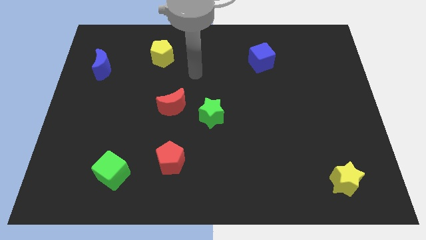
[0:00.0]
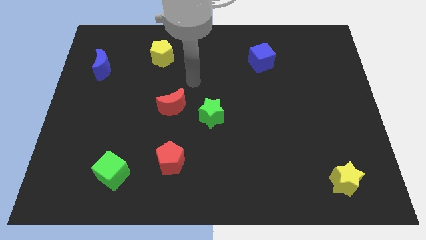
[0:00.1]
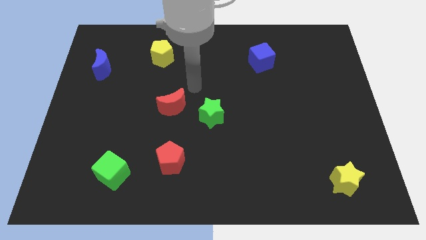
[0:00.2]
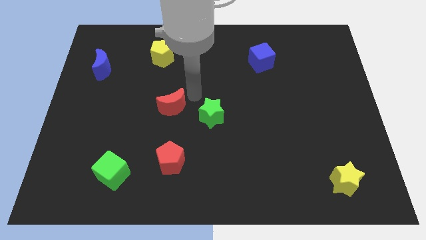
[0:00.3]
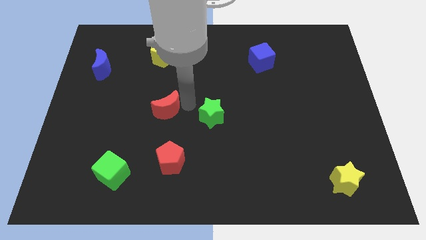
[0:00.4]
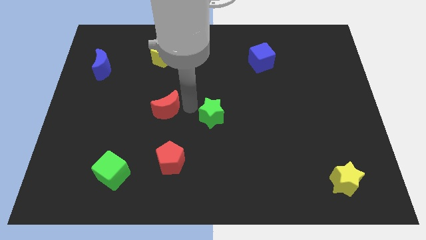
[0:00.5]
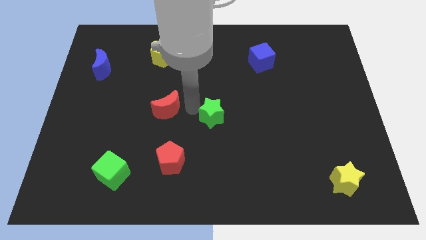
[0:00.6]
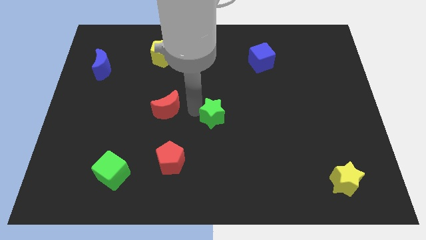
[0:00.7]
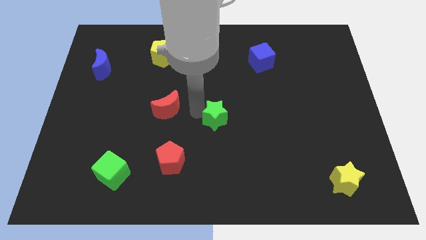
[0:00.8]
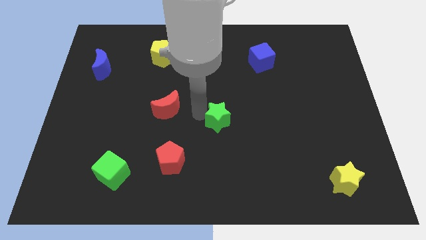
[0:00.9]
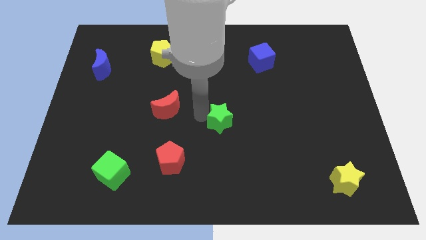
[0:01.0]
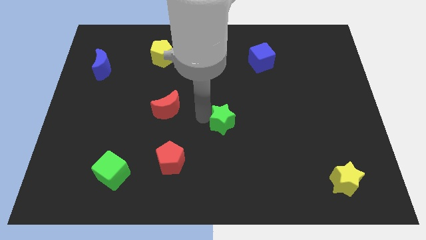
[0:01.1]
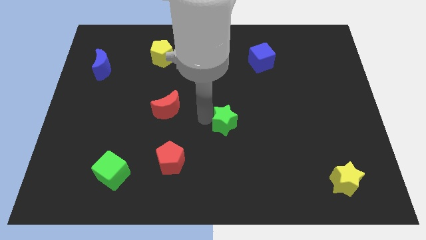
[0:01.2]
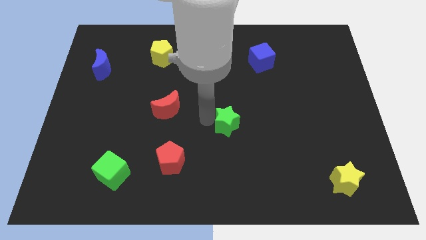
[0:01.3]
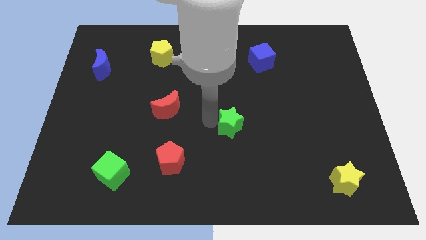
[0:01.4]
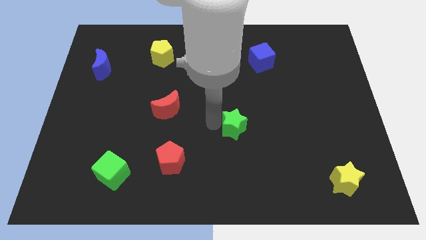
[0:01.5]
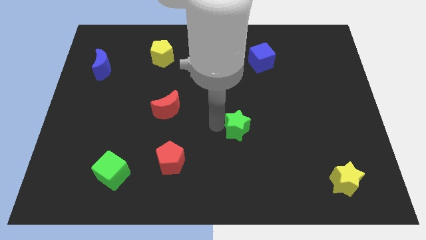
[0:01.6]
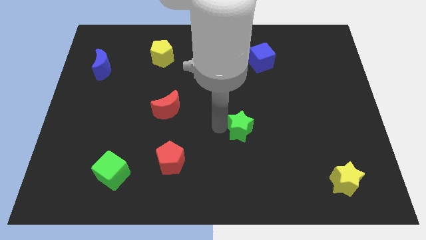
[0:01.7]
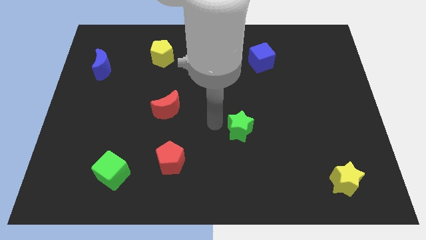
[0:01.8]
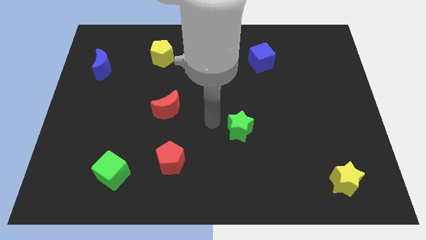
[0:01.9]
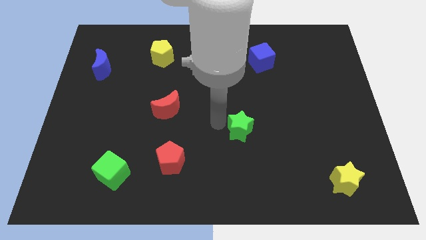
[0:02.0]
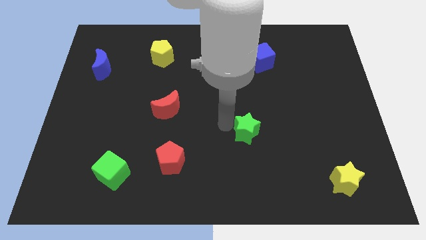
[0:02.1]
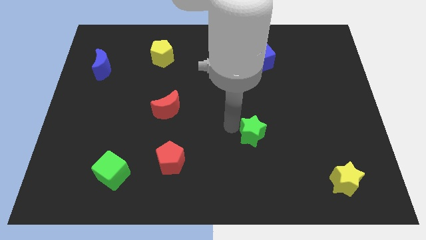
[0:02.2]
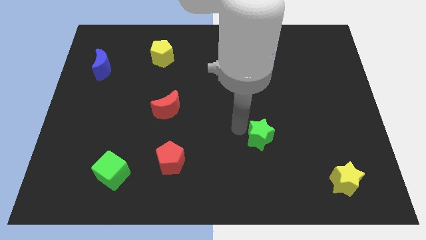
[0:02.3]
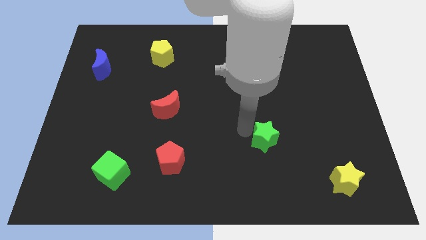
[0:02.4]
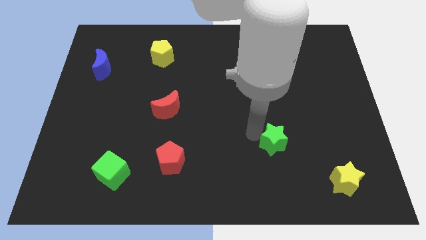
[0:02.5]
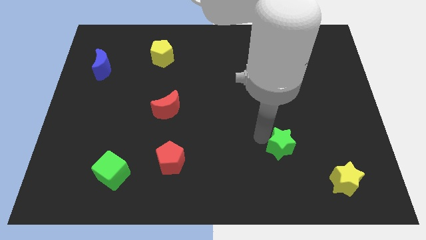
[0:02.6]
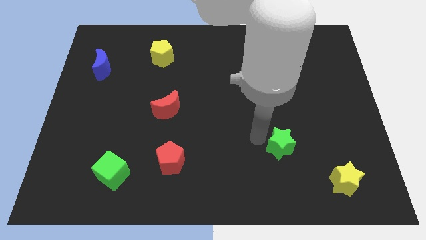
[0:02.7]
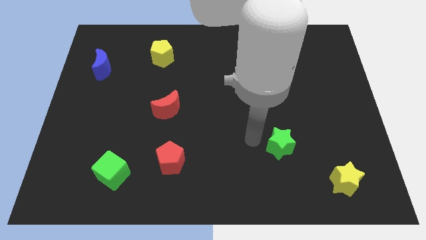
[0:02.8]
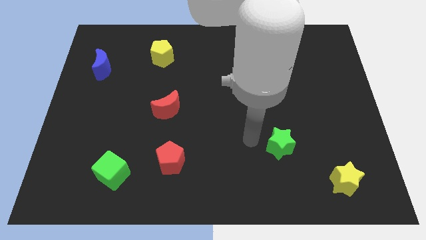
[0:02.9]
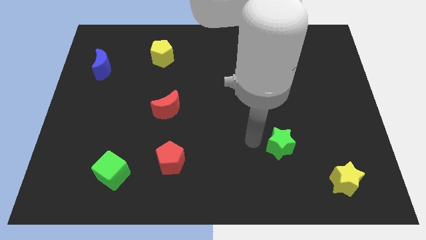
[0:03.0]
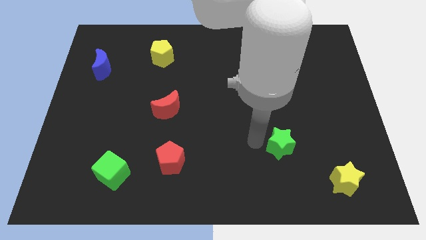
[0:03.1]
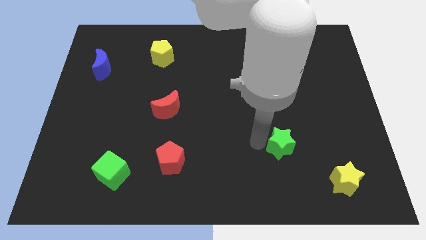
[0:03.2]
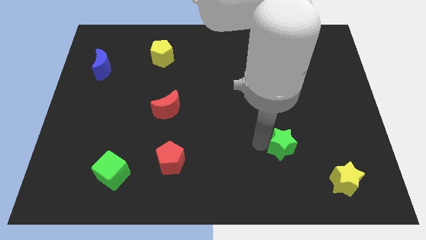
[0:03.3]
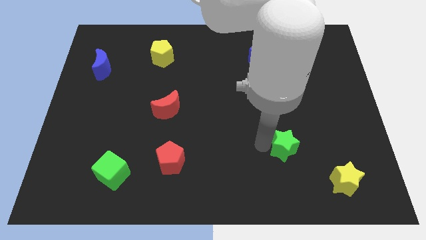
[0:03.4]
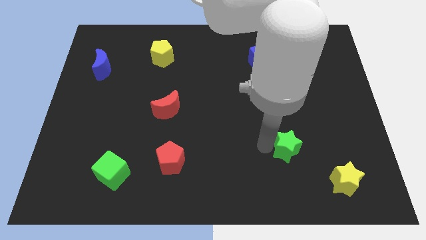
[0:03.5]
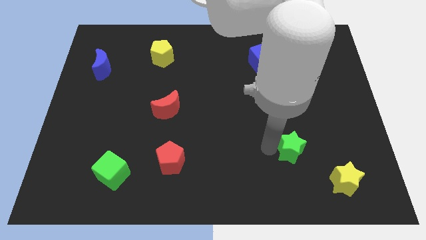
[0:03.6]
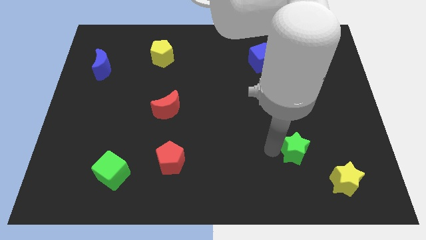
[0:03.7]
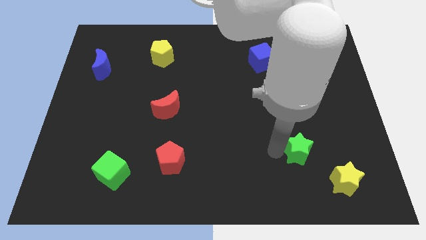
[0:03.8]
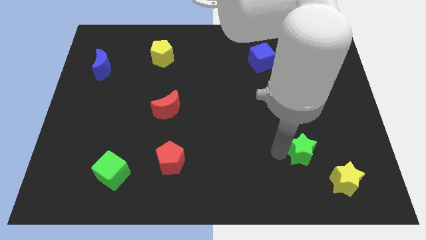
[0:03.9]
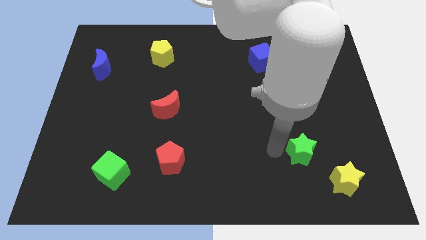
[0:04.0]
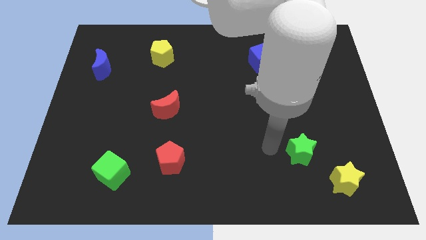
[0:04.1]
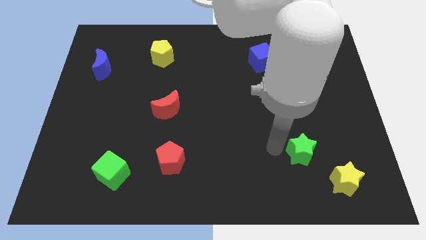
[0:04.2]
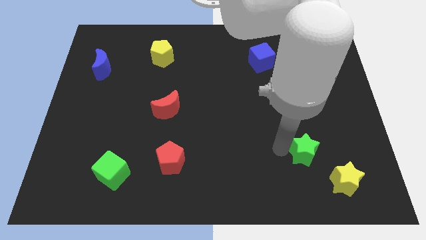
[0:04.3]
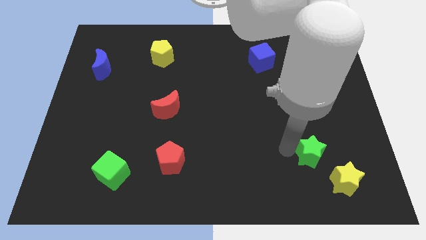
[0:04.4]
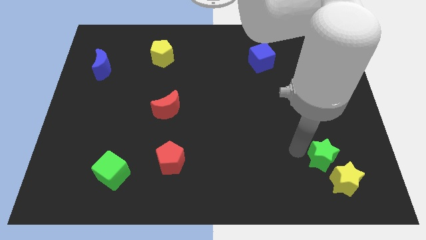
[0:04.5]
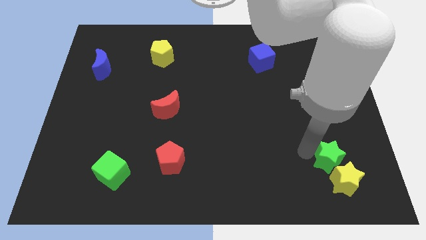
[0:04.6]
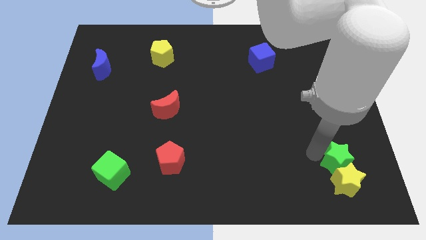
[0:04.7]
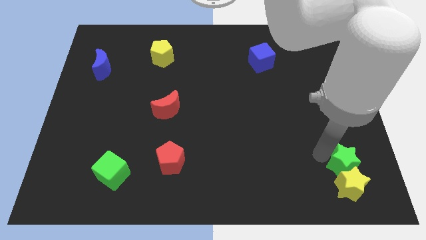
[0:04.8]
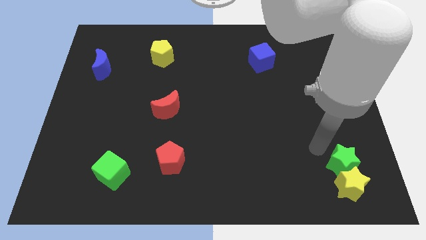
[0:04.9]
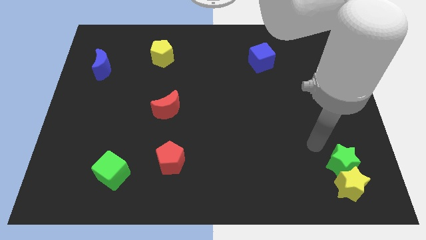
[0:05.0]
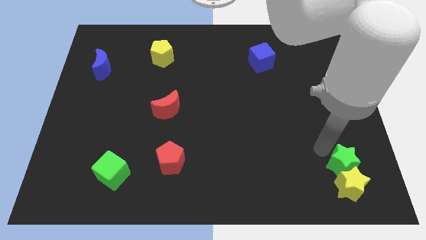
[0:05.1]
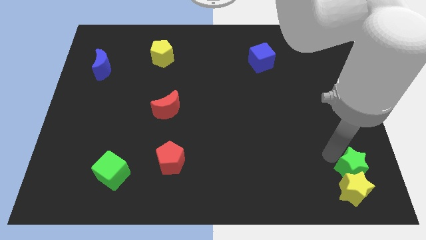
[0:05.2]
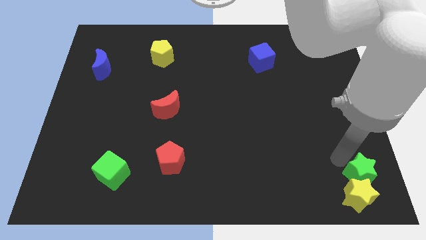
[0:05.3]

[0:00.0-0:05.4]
push the green star to the bottom right of the board

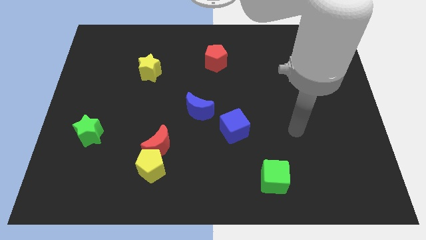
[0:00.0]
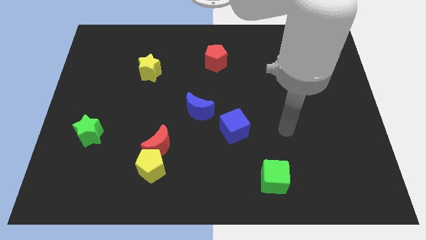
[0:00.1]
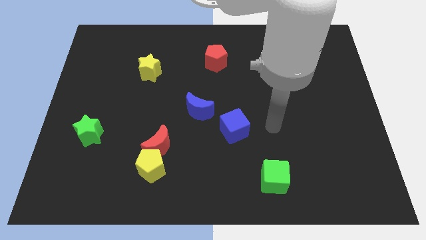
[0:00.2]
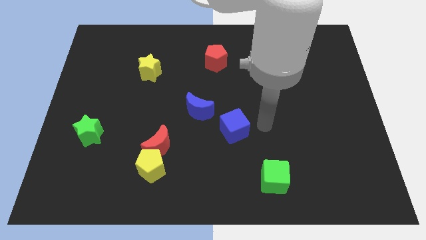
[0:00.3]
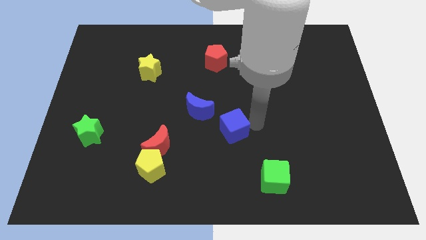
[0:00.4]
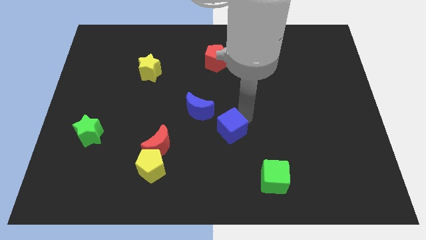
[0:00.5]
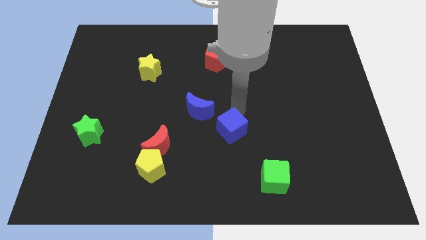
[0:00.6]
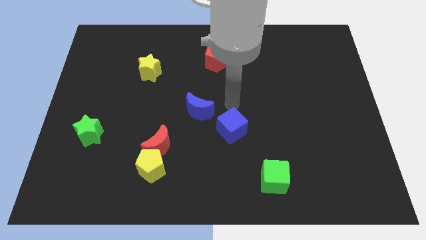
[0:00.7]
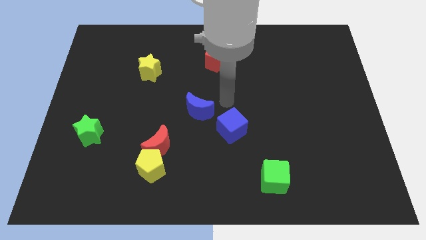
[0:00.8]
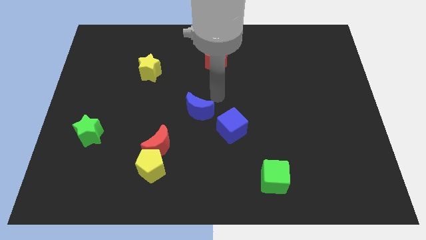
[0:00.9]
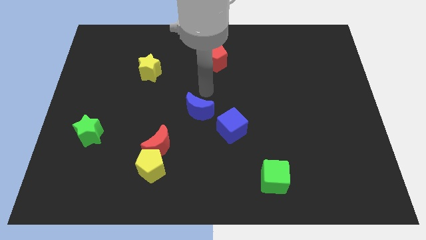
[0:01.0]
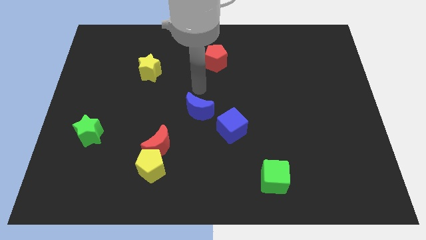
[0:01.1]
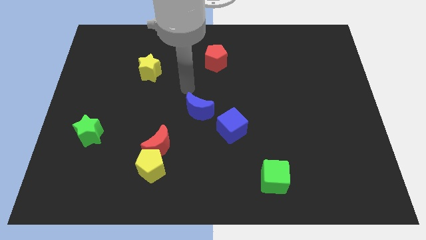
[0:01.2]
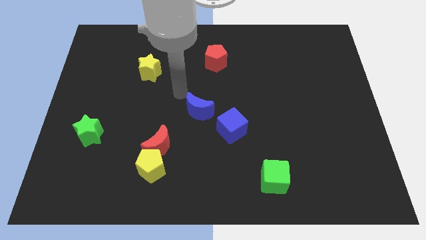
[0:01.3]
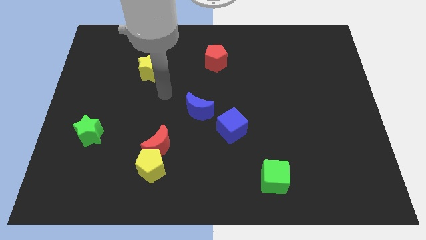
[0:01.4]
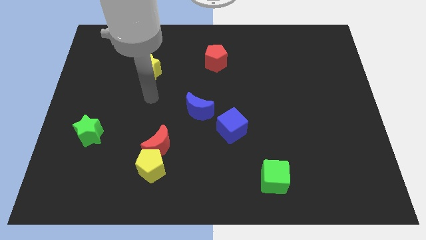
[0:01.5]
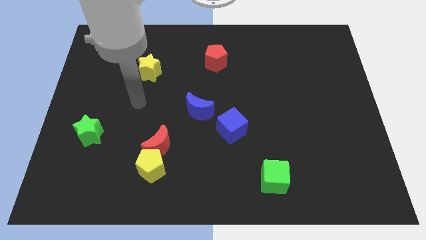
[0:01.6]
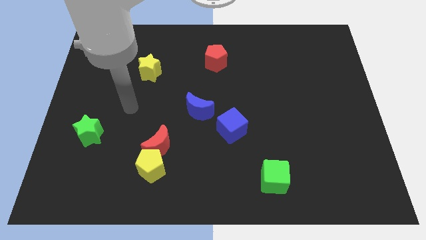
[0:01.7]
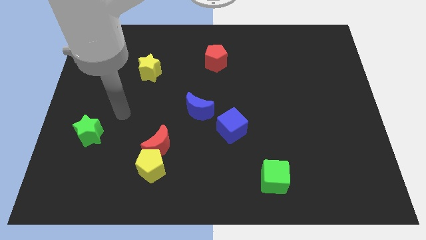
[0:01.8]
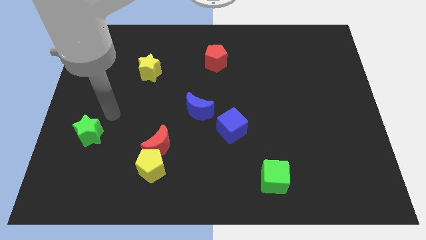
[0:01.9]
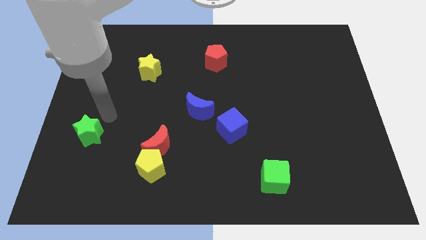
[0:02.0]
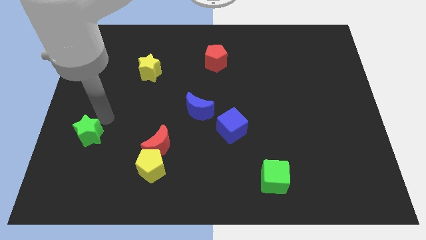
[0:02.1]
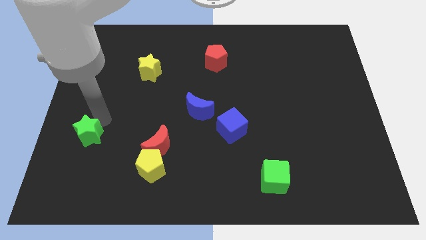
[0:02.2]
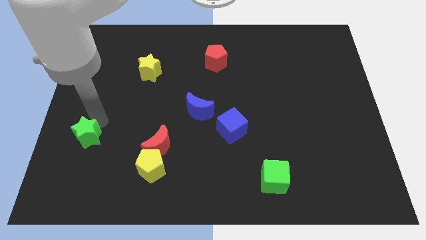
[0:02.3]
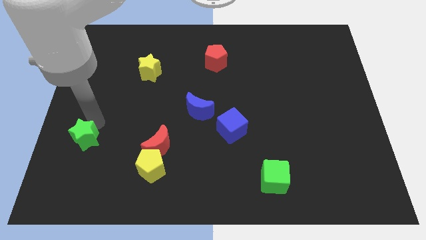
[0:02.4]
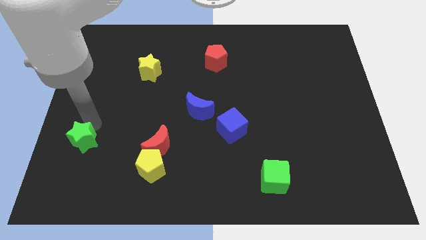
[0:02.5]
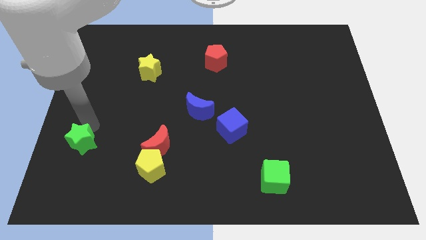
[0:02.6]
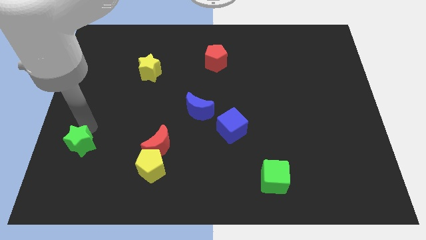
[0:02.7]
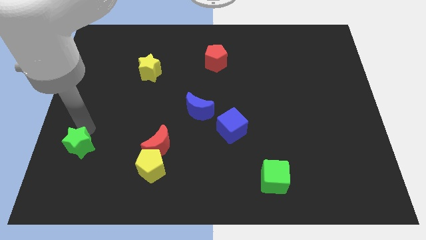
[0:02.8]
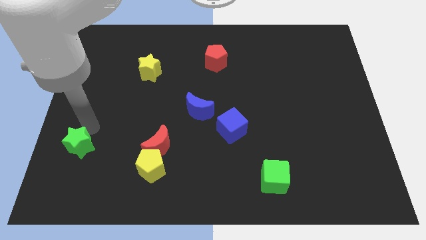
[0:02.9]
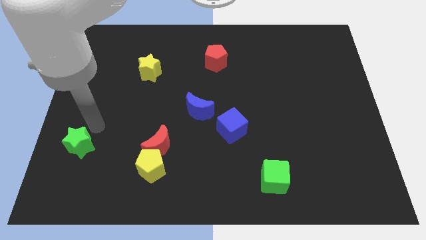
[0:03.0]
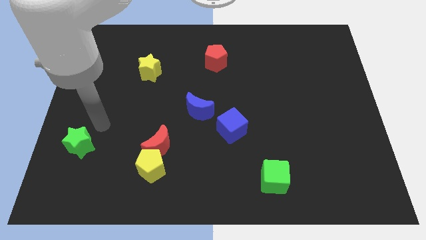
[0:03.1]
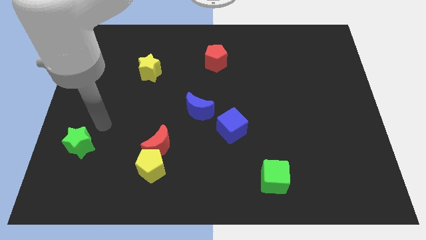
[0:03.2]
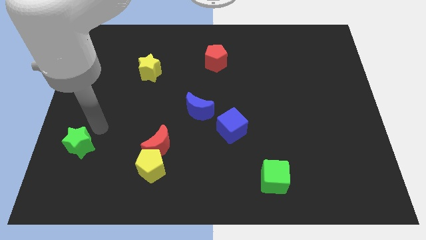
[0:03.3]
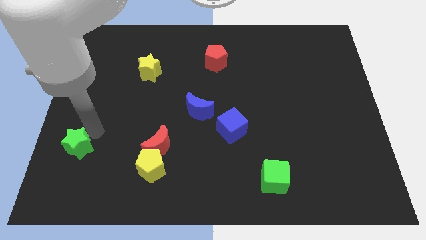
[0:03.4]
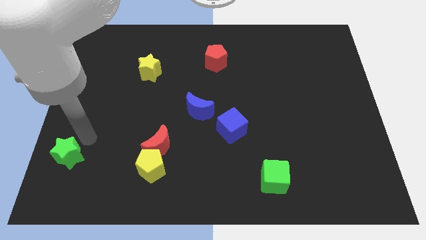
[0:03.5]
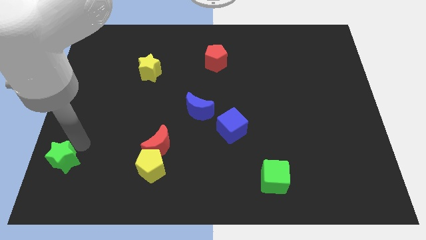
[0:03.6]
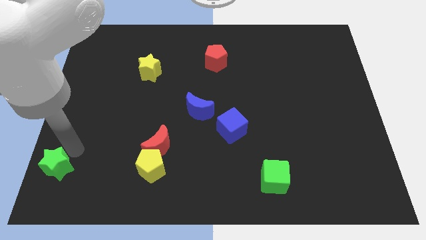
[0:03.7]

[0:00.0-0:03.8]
push the green star to the bottom left of the board
